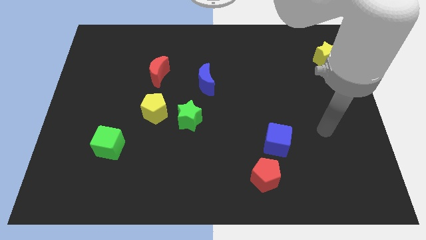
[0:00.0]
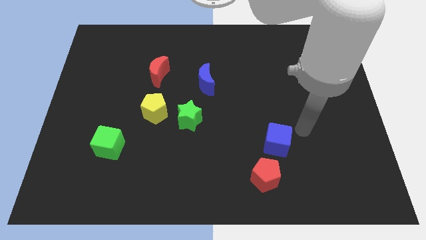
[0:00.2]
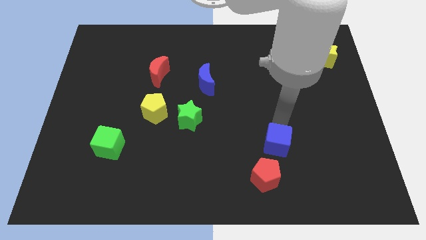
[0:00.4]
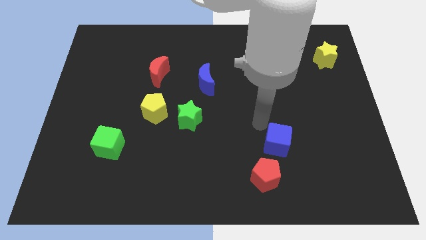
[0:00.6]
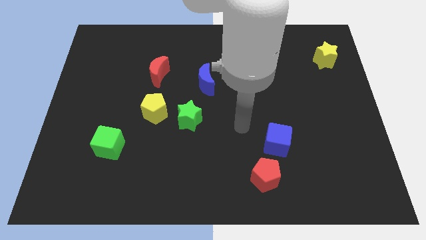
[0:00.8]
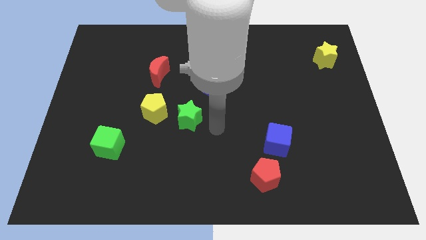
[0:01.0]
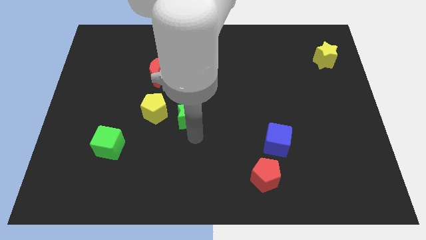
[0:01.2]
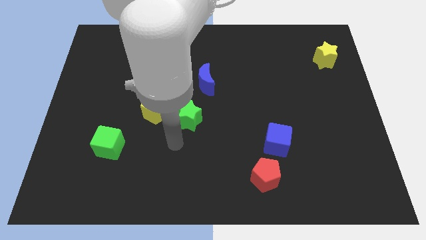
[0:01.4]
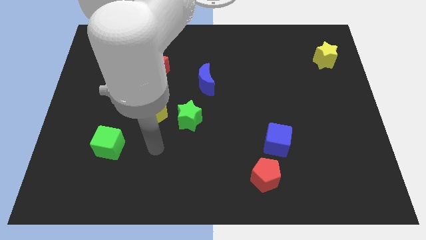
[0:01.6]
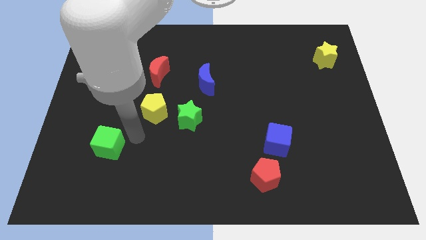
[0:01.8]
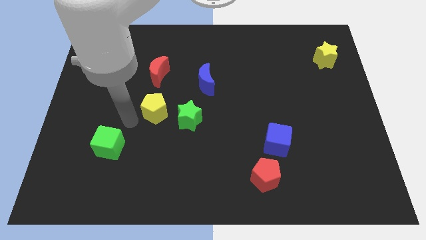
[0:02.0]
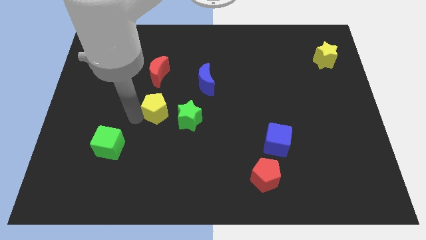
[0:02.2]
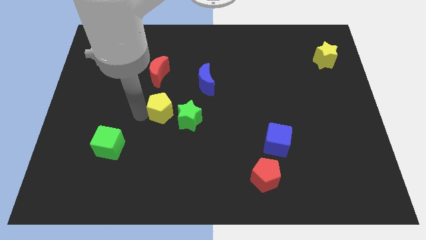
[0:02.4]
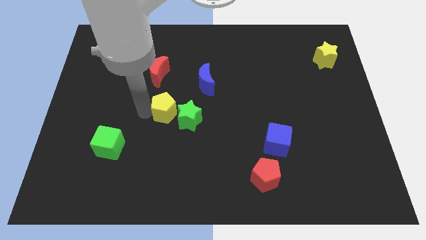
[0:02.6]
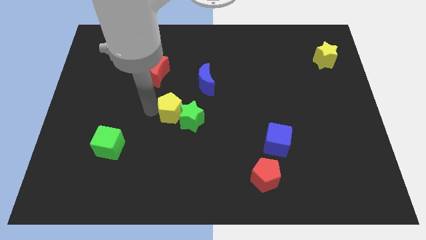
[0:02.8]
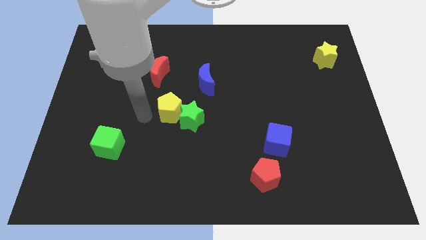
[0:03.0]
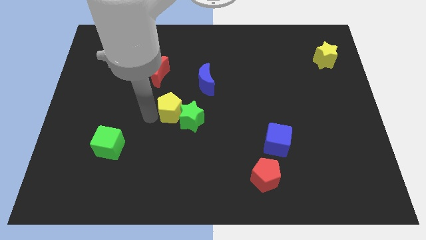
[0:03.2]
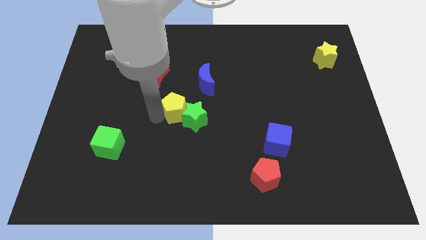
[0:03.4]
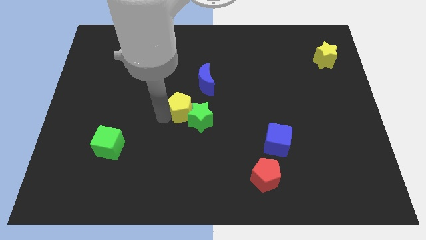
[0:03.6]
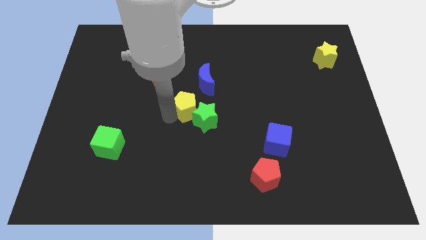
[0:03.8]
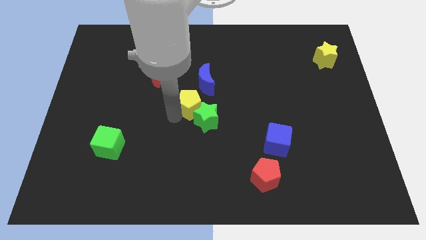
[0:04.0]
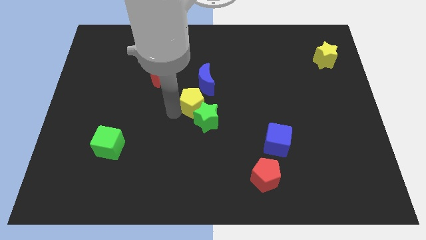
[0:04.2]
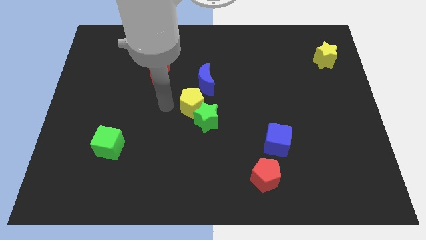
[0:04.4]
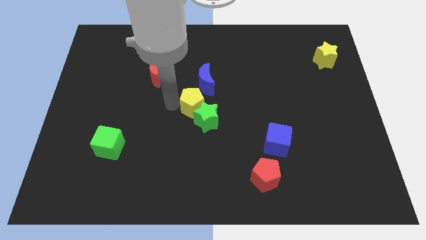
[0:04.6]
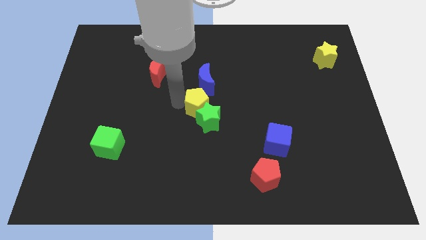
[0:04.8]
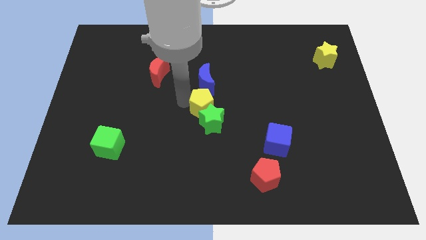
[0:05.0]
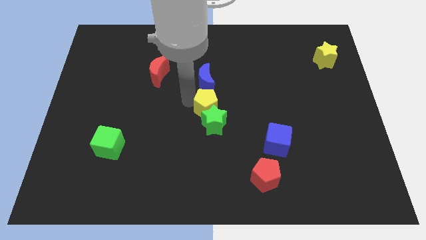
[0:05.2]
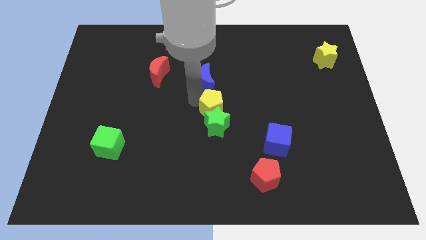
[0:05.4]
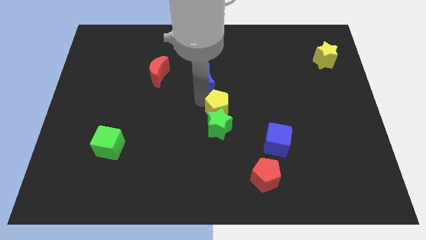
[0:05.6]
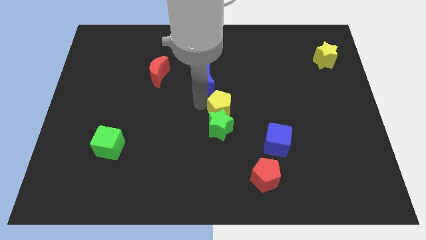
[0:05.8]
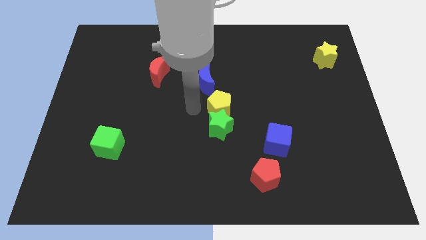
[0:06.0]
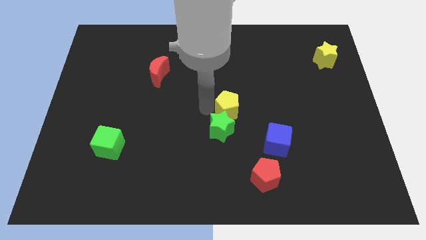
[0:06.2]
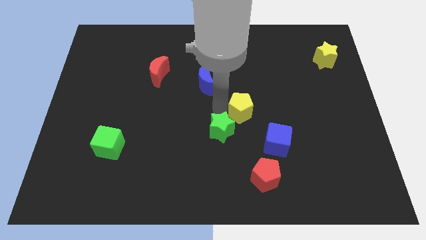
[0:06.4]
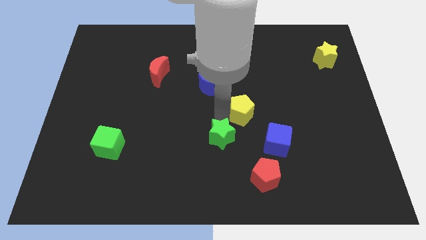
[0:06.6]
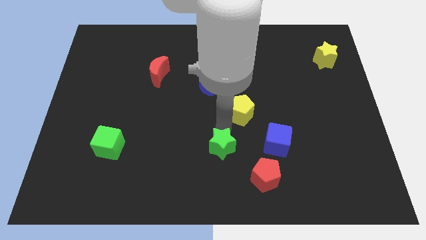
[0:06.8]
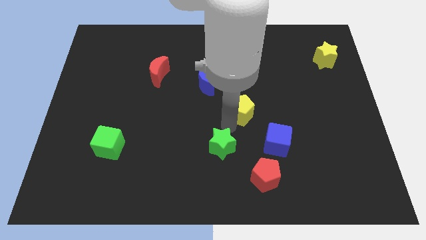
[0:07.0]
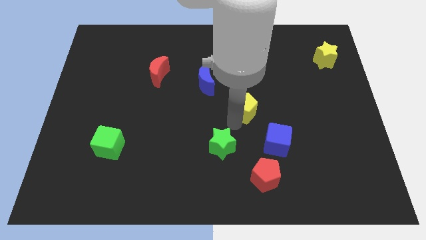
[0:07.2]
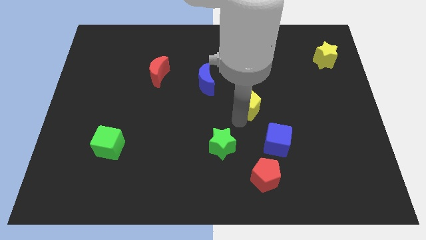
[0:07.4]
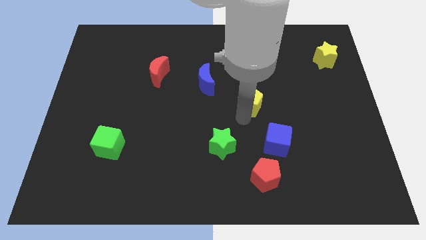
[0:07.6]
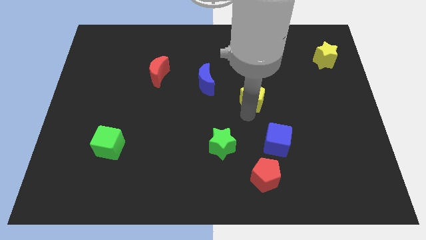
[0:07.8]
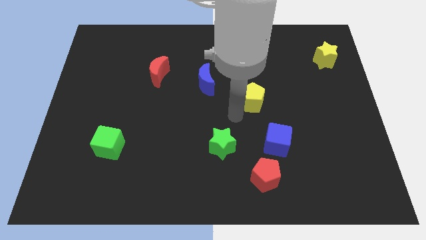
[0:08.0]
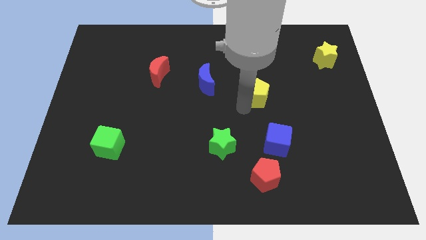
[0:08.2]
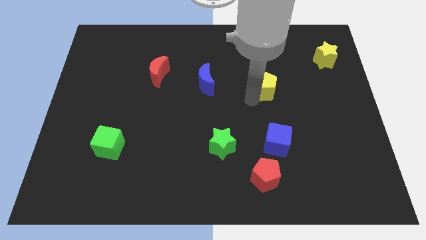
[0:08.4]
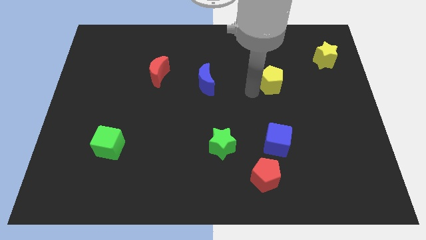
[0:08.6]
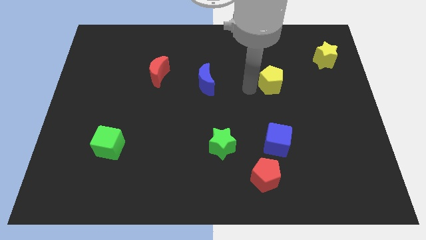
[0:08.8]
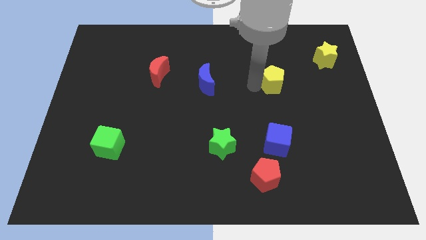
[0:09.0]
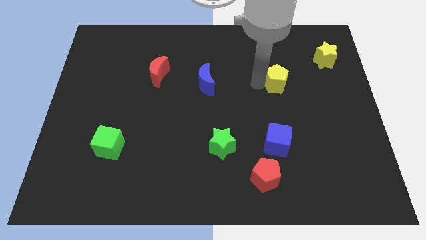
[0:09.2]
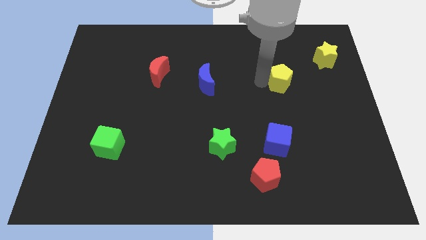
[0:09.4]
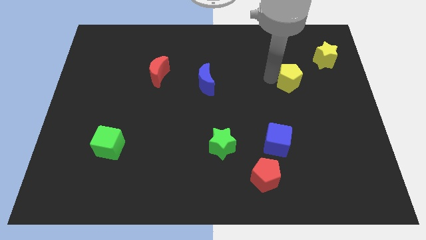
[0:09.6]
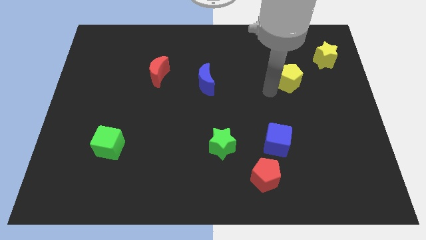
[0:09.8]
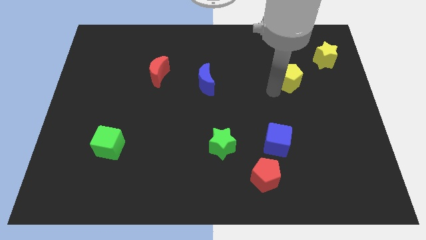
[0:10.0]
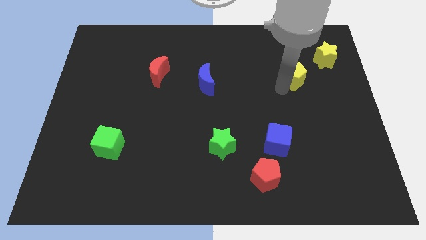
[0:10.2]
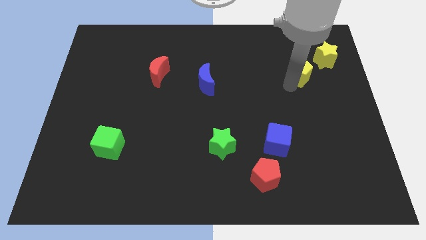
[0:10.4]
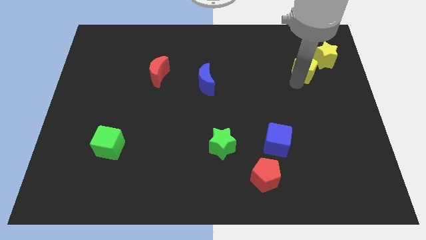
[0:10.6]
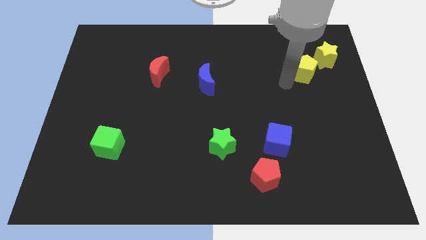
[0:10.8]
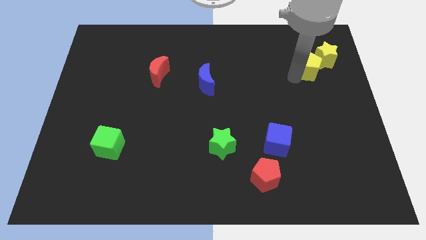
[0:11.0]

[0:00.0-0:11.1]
move the yellow pentagon towards the yellow star

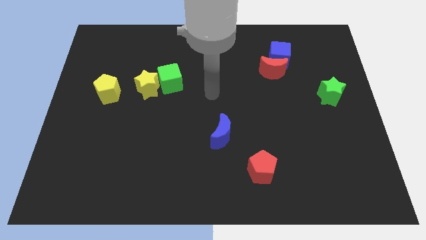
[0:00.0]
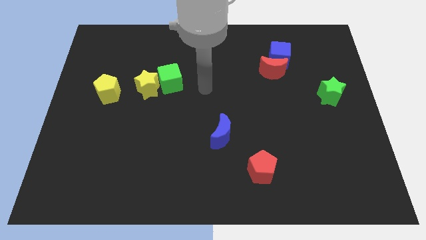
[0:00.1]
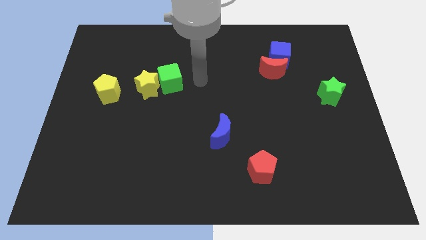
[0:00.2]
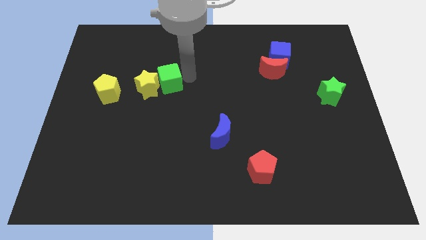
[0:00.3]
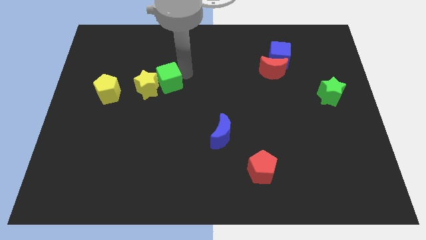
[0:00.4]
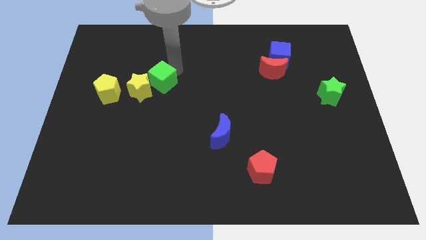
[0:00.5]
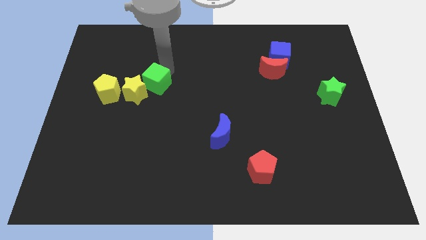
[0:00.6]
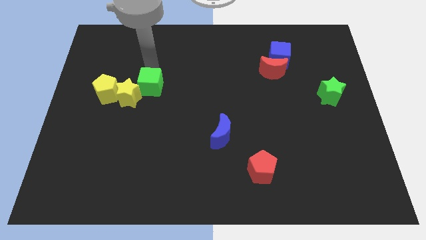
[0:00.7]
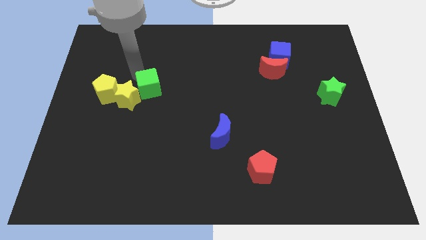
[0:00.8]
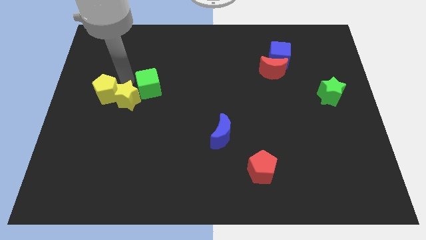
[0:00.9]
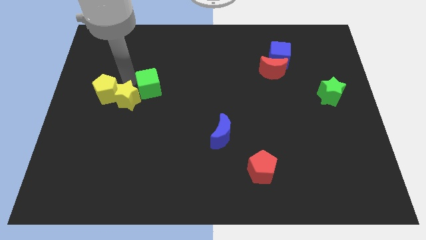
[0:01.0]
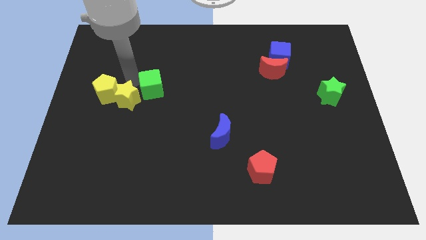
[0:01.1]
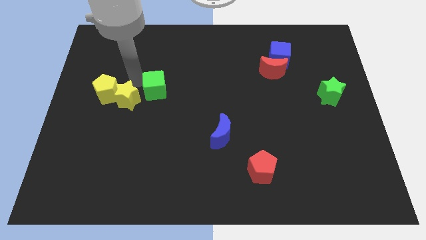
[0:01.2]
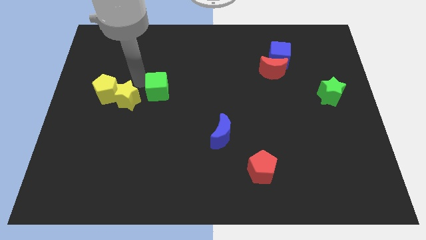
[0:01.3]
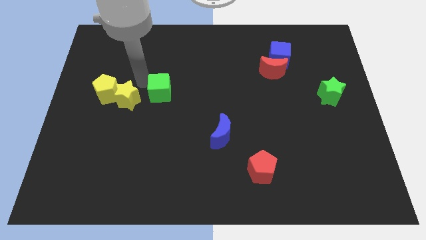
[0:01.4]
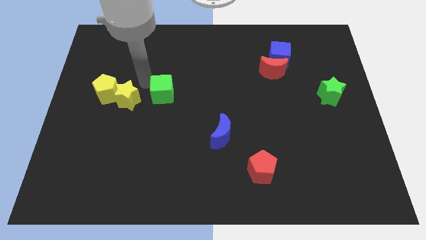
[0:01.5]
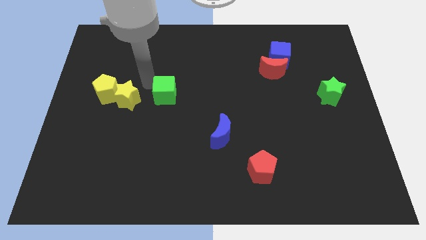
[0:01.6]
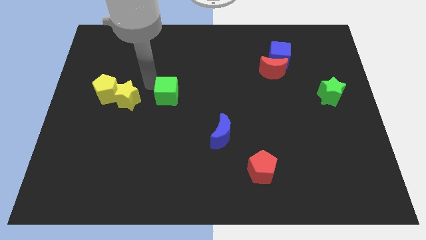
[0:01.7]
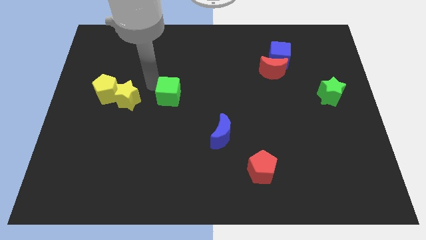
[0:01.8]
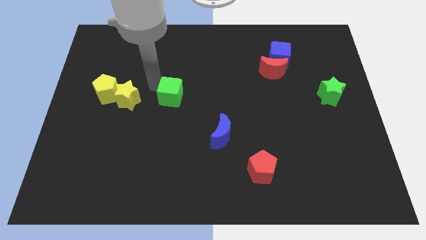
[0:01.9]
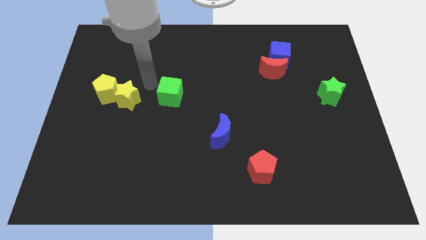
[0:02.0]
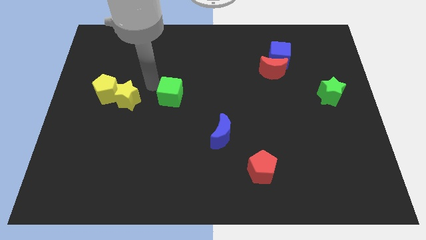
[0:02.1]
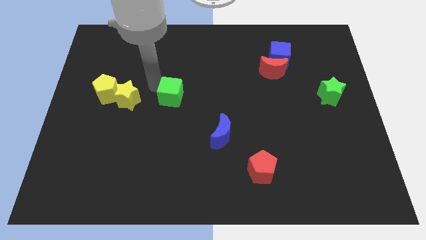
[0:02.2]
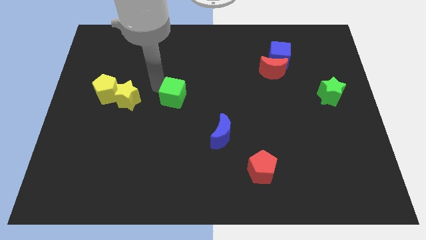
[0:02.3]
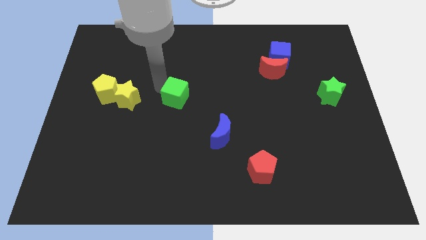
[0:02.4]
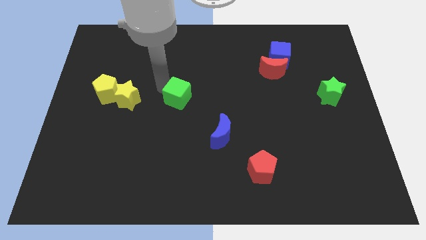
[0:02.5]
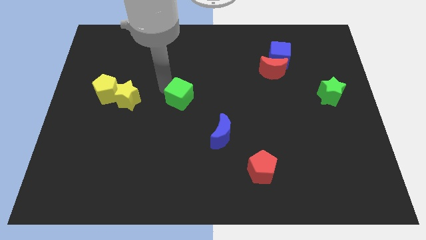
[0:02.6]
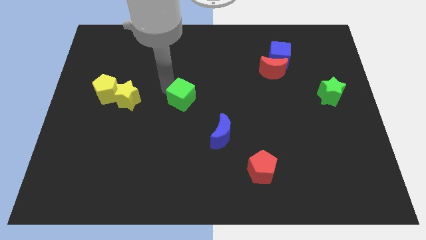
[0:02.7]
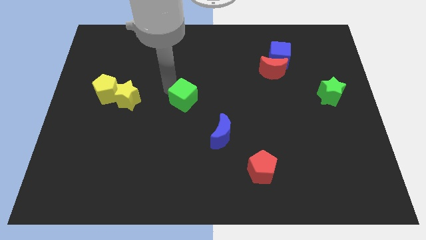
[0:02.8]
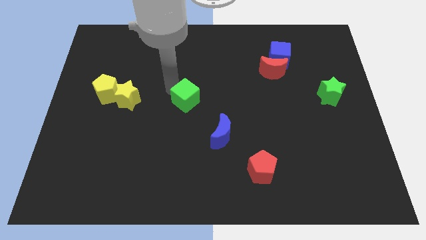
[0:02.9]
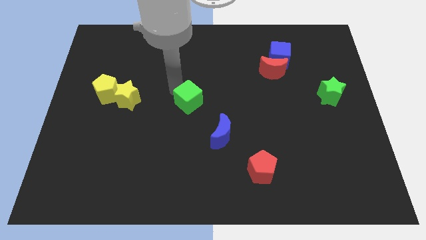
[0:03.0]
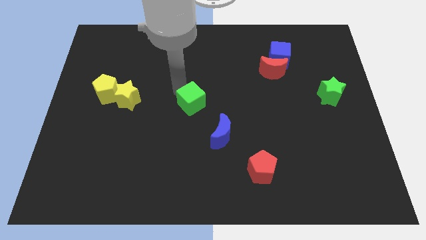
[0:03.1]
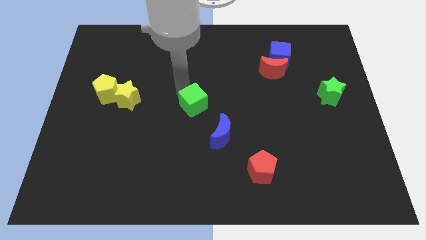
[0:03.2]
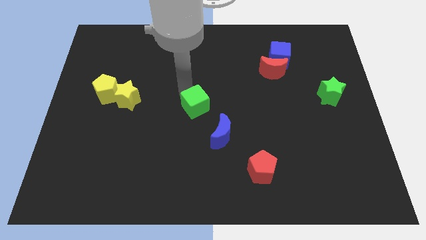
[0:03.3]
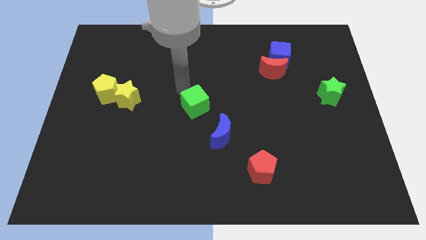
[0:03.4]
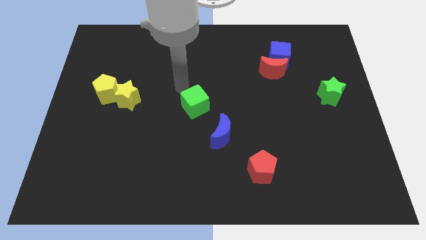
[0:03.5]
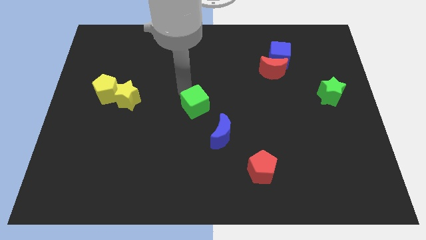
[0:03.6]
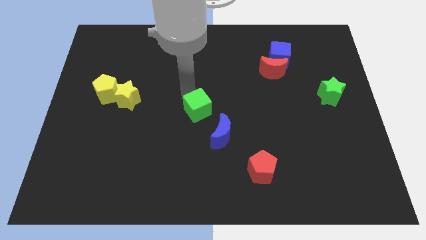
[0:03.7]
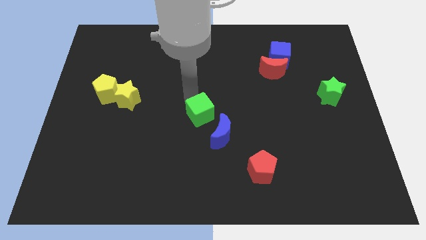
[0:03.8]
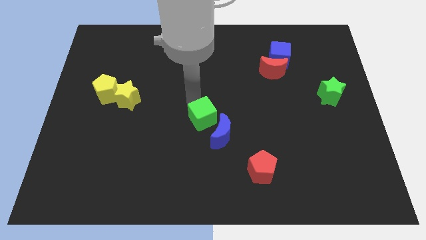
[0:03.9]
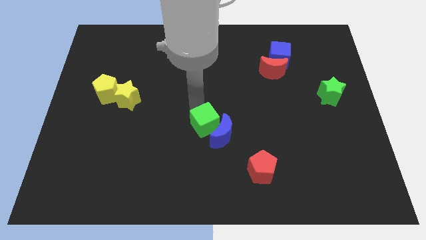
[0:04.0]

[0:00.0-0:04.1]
push the green cube towards the blue moon
